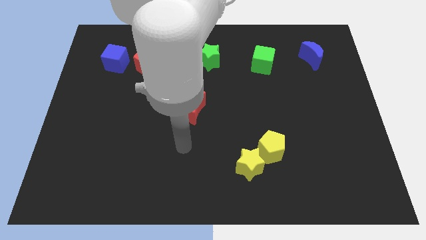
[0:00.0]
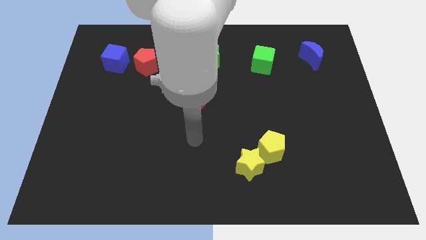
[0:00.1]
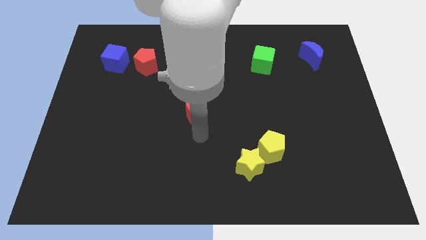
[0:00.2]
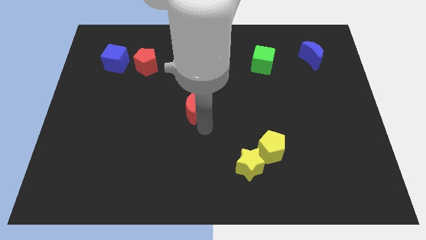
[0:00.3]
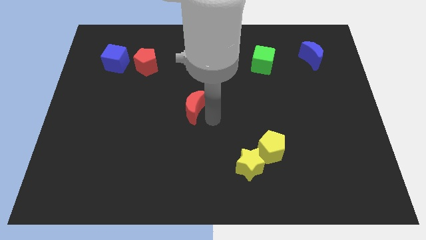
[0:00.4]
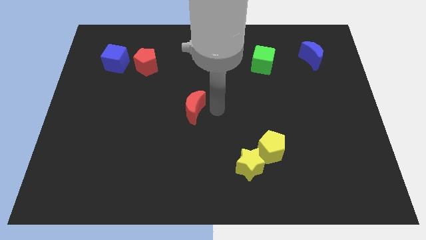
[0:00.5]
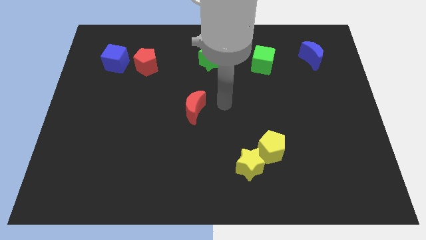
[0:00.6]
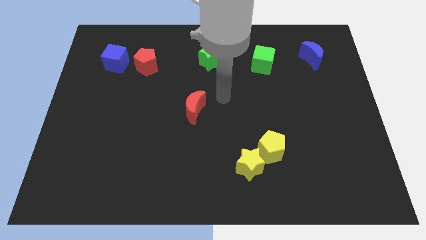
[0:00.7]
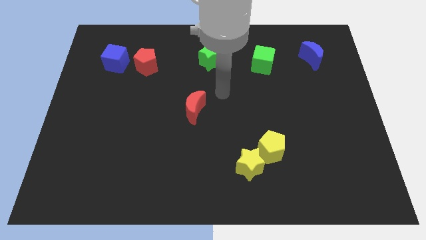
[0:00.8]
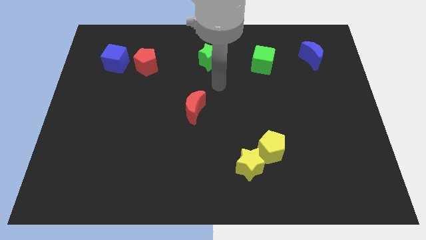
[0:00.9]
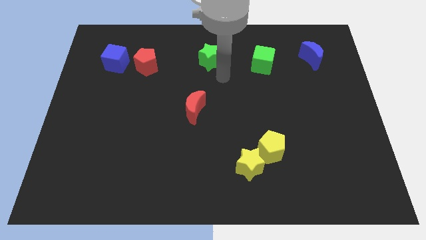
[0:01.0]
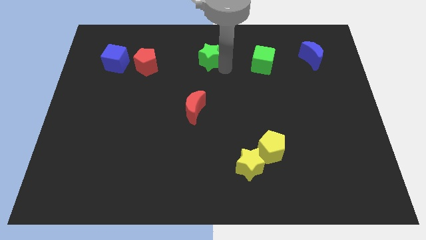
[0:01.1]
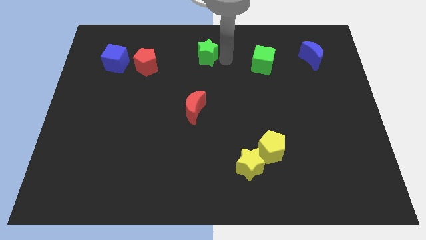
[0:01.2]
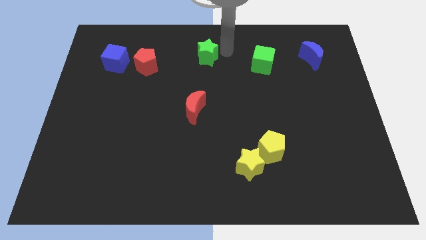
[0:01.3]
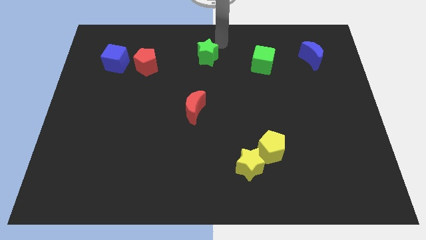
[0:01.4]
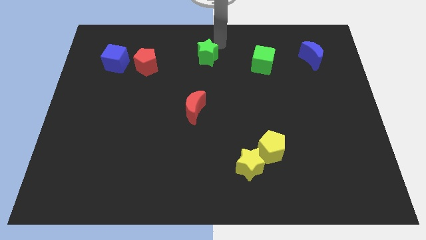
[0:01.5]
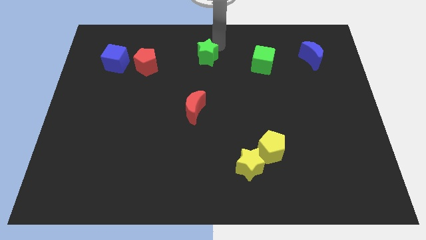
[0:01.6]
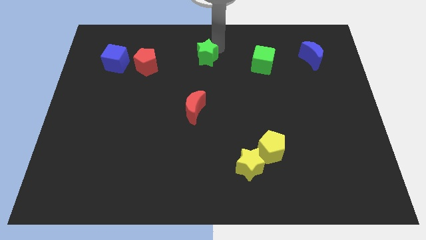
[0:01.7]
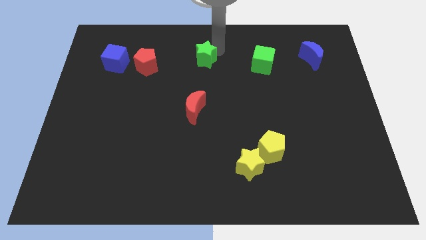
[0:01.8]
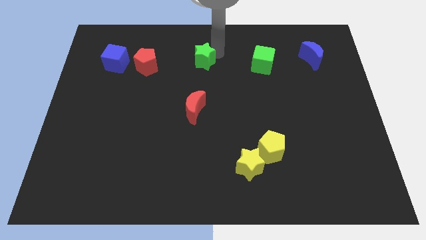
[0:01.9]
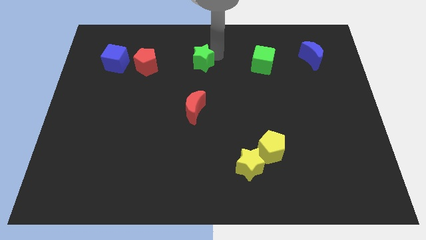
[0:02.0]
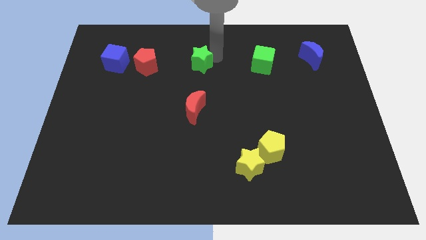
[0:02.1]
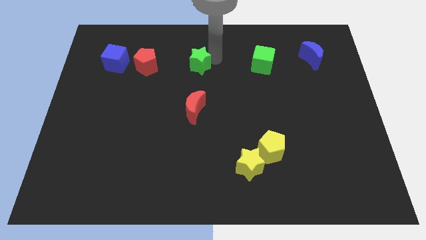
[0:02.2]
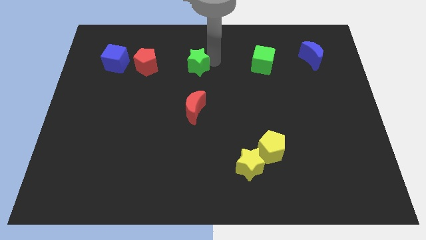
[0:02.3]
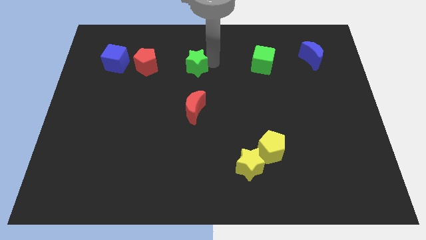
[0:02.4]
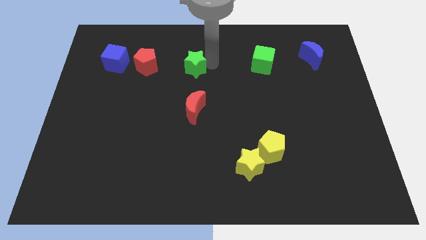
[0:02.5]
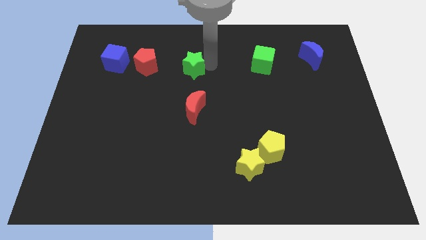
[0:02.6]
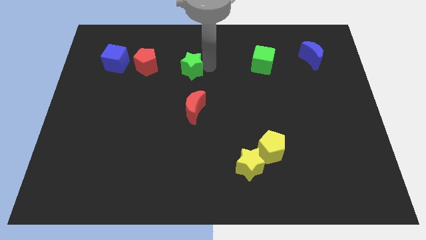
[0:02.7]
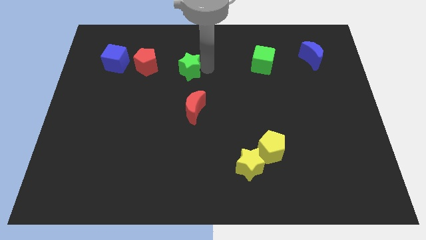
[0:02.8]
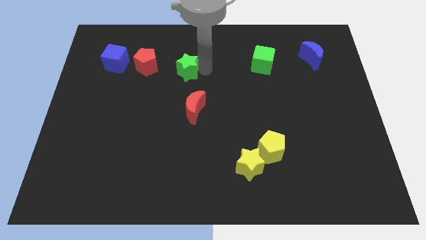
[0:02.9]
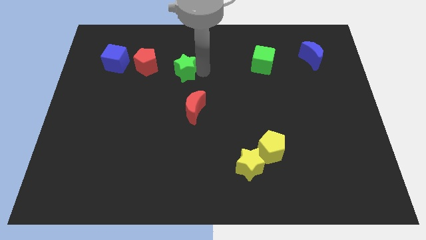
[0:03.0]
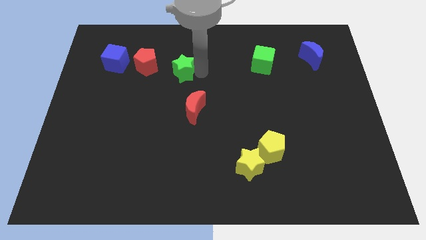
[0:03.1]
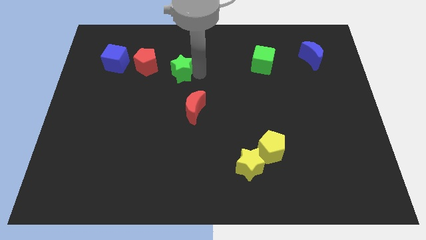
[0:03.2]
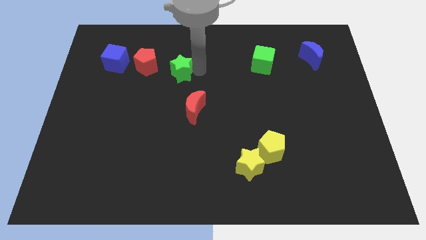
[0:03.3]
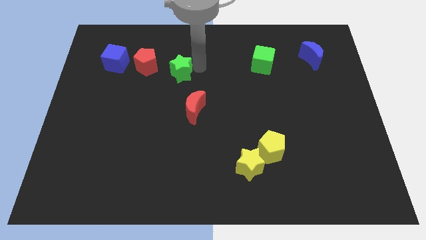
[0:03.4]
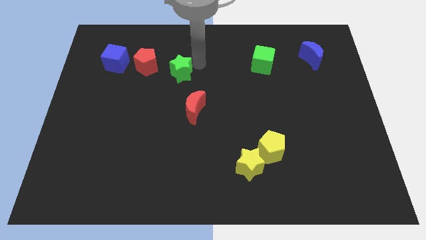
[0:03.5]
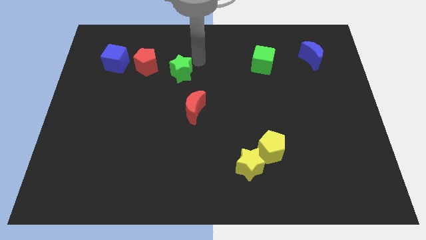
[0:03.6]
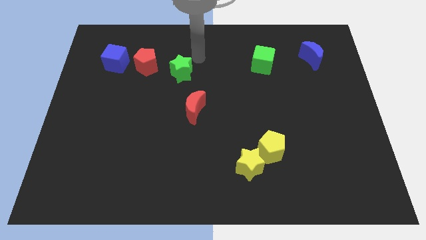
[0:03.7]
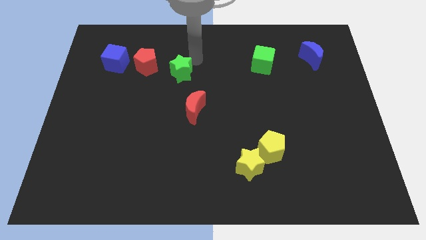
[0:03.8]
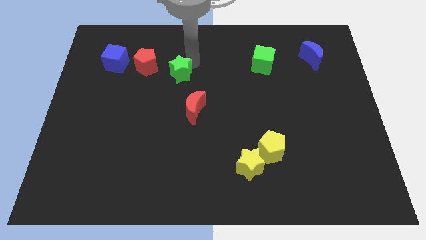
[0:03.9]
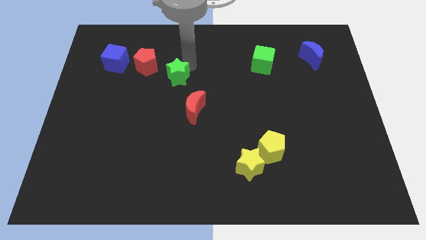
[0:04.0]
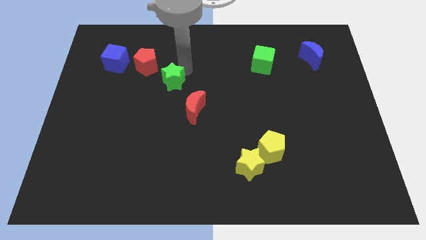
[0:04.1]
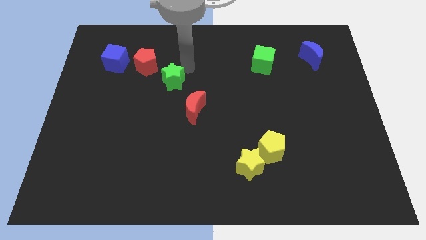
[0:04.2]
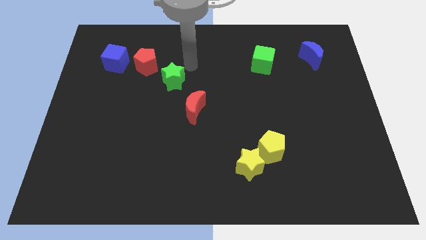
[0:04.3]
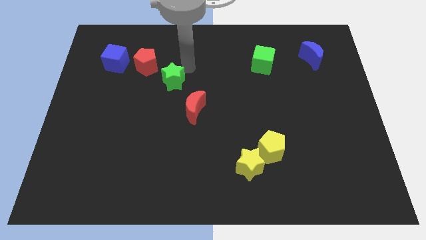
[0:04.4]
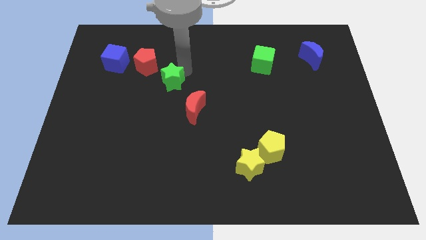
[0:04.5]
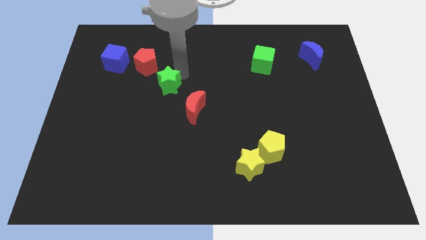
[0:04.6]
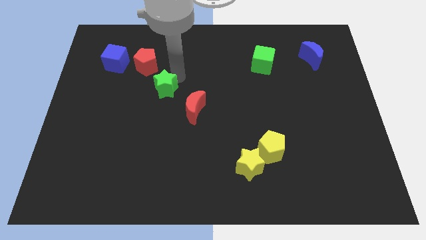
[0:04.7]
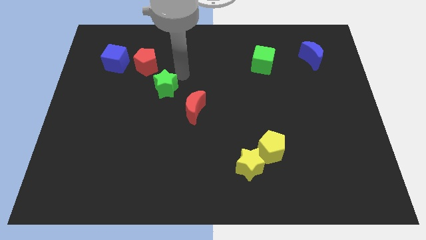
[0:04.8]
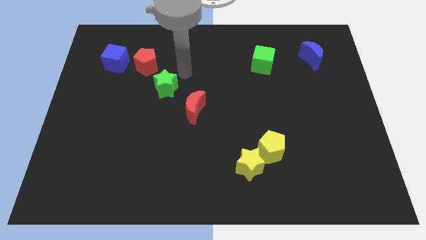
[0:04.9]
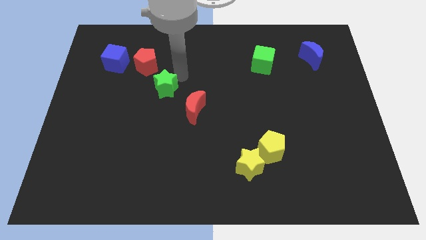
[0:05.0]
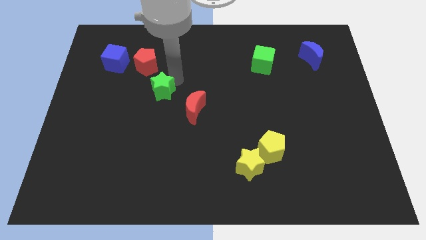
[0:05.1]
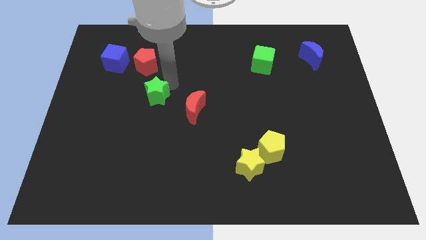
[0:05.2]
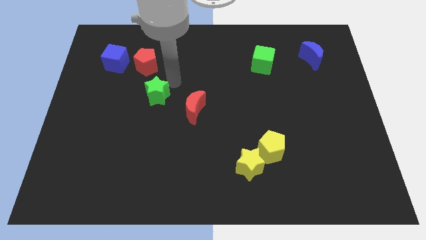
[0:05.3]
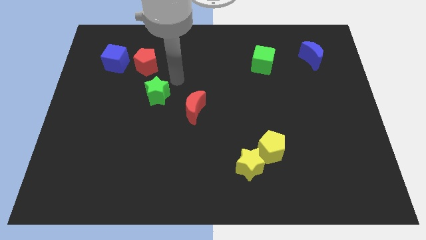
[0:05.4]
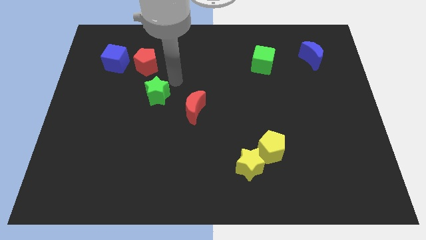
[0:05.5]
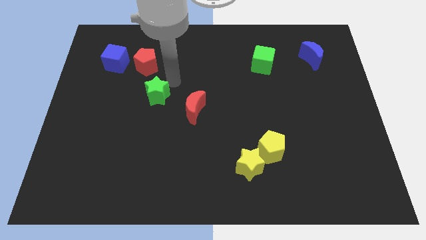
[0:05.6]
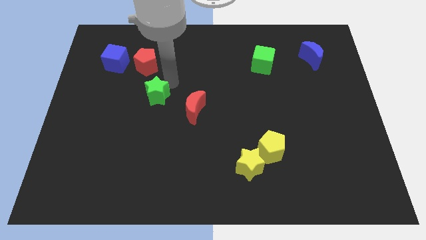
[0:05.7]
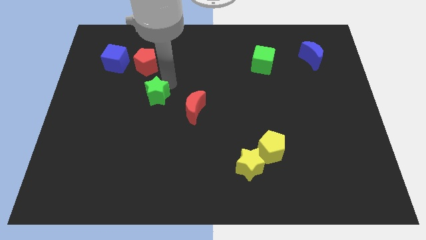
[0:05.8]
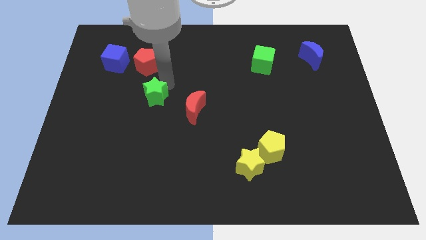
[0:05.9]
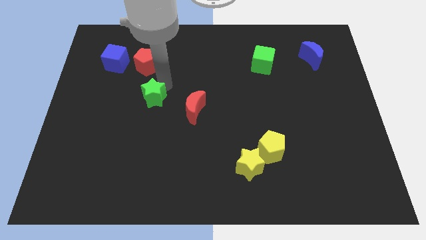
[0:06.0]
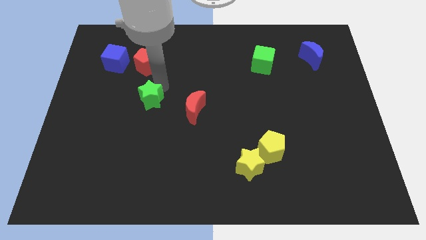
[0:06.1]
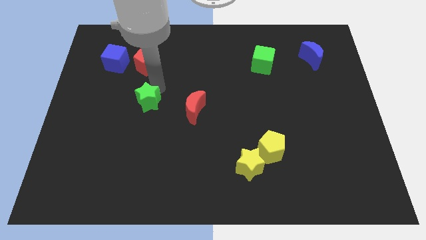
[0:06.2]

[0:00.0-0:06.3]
slide the green star down and then to the left

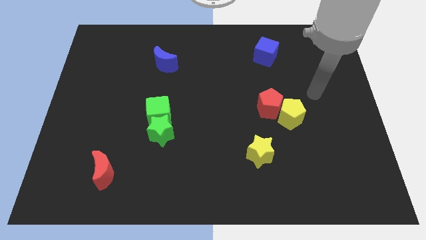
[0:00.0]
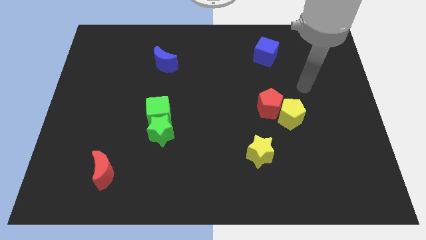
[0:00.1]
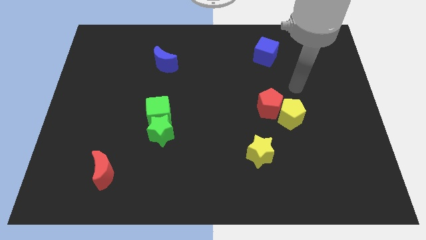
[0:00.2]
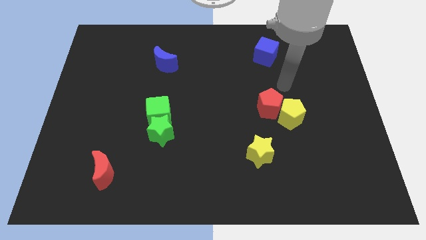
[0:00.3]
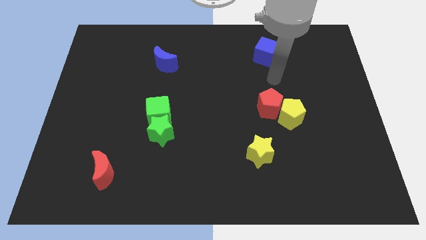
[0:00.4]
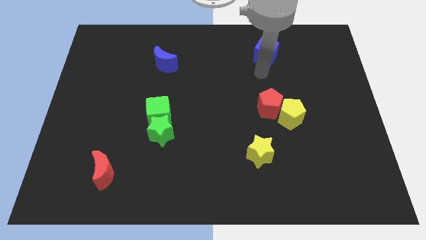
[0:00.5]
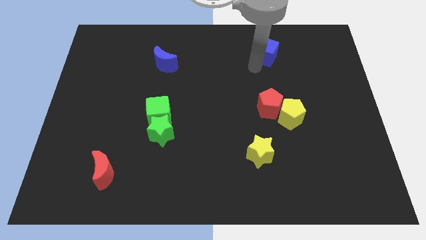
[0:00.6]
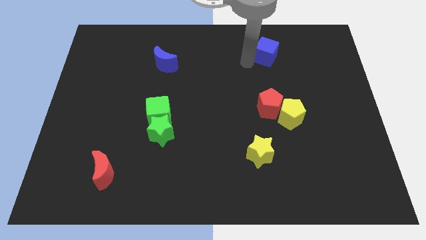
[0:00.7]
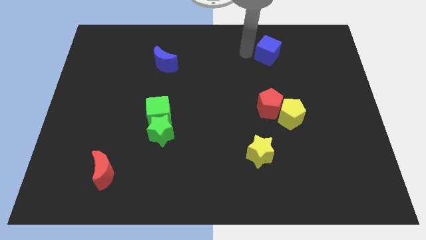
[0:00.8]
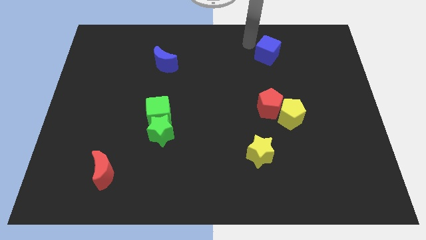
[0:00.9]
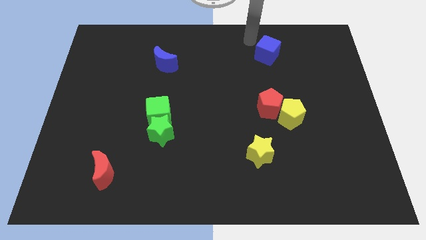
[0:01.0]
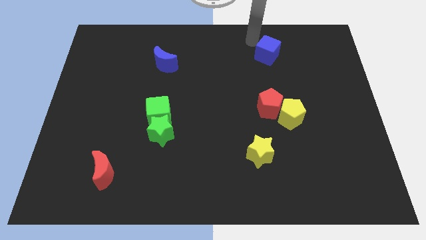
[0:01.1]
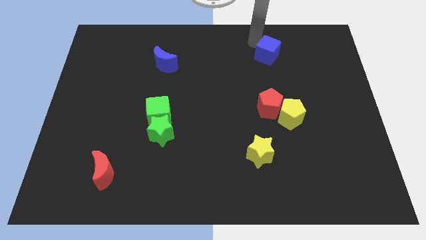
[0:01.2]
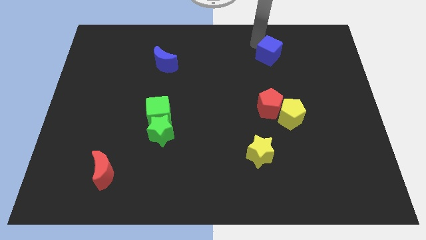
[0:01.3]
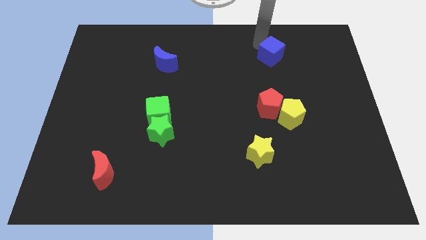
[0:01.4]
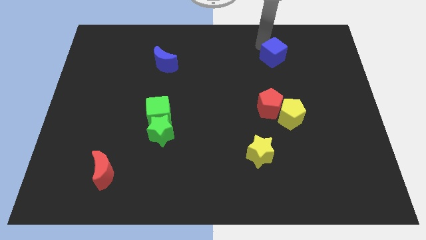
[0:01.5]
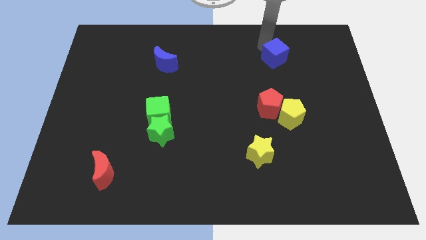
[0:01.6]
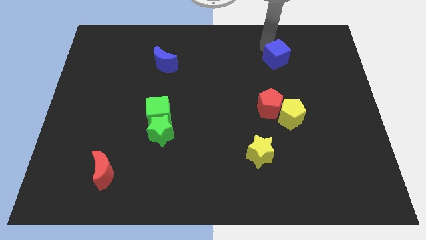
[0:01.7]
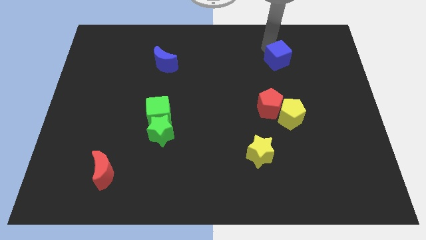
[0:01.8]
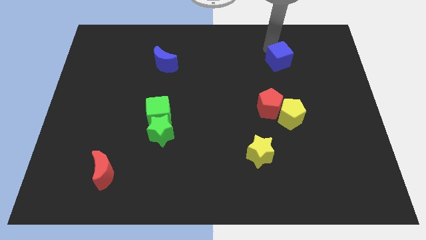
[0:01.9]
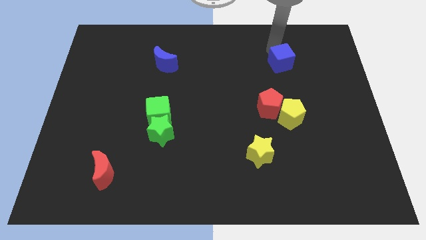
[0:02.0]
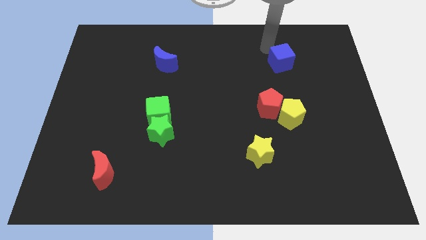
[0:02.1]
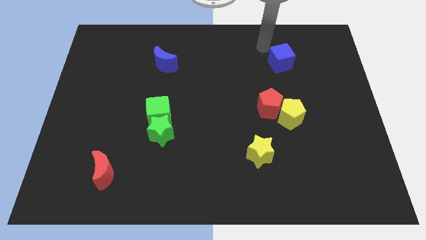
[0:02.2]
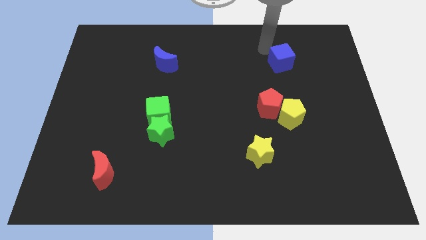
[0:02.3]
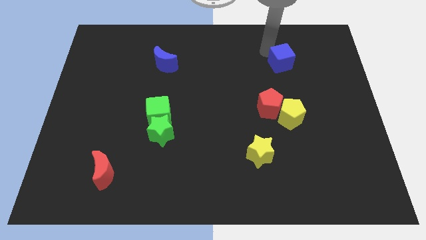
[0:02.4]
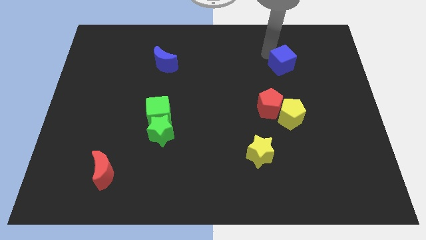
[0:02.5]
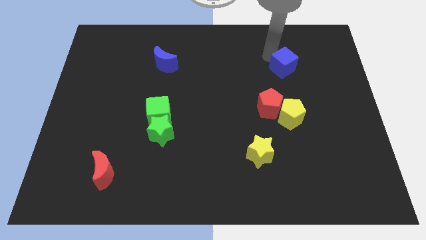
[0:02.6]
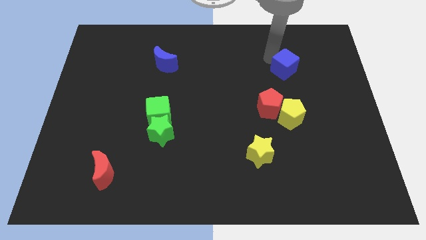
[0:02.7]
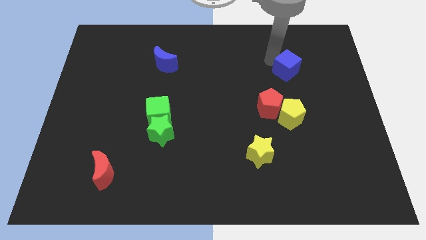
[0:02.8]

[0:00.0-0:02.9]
slightly move the blue cube downwards and then to the right
